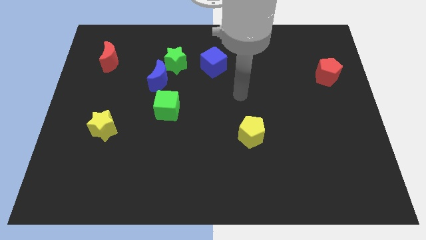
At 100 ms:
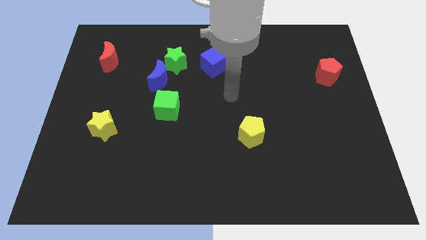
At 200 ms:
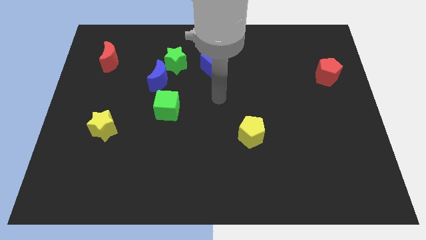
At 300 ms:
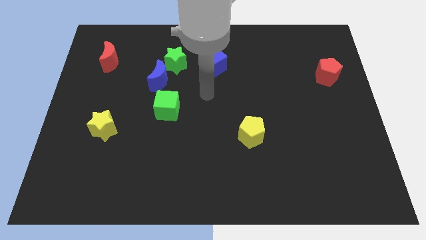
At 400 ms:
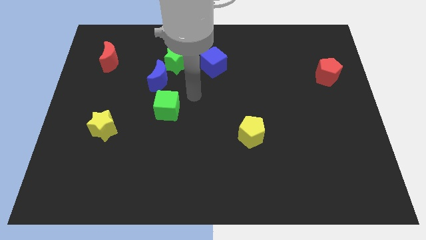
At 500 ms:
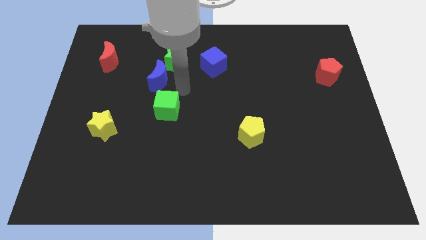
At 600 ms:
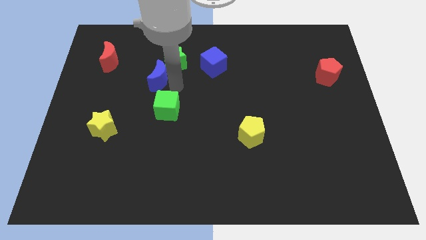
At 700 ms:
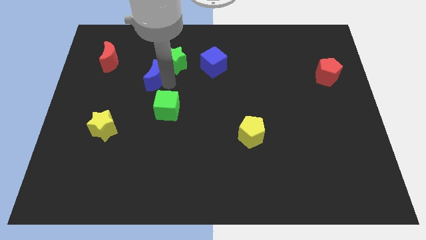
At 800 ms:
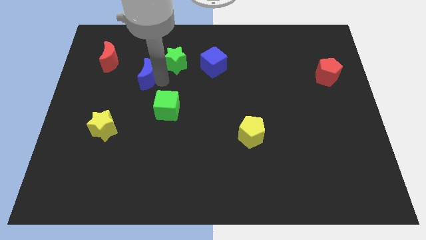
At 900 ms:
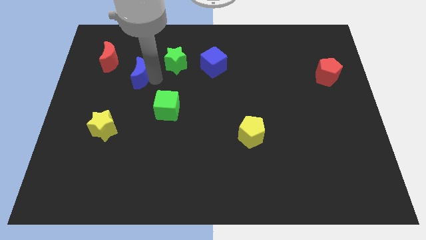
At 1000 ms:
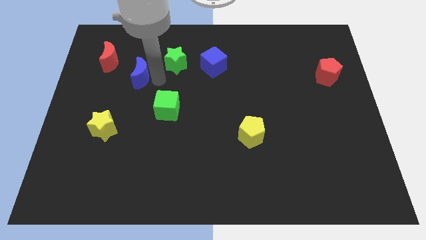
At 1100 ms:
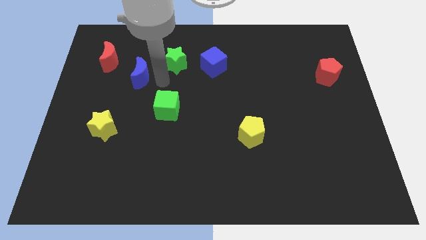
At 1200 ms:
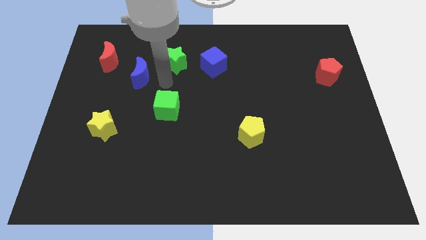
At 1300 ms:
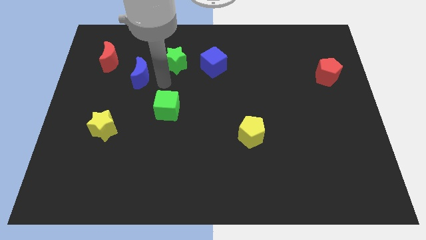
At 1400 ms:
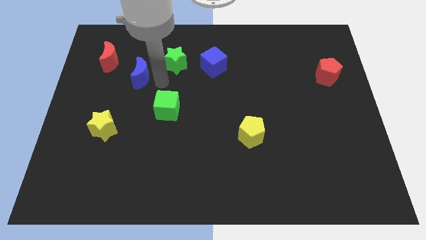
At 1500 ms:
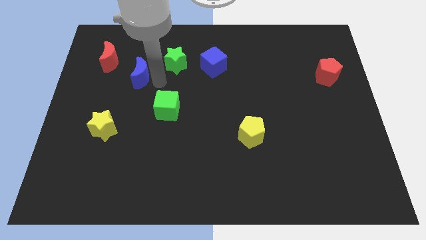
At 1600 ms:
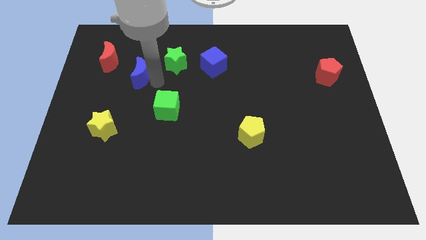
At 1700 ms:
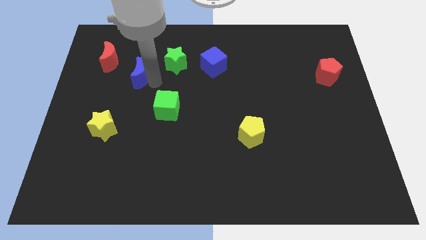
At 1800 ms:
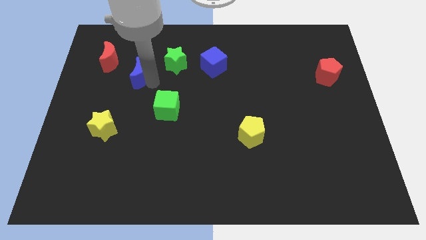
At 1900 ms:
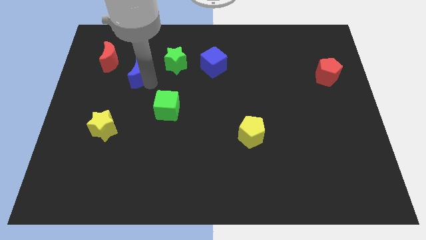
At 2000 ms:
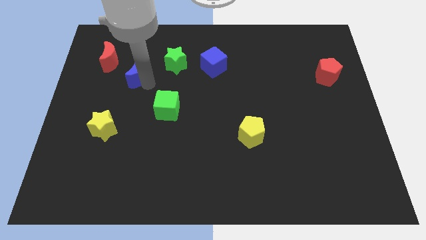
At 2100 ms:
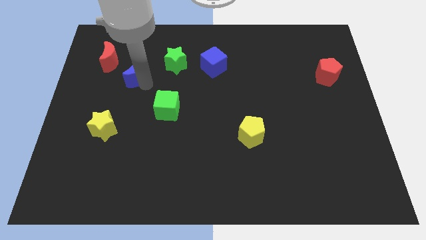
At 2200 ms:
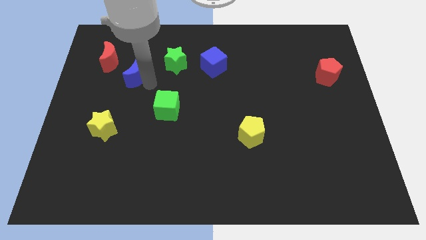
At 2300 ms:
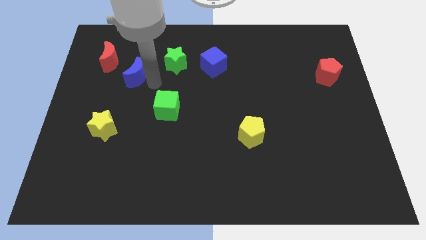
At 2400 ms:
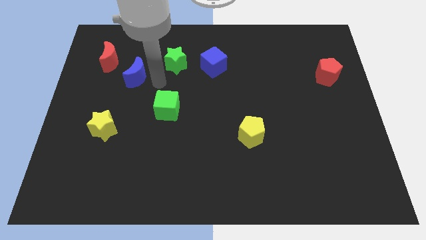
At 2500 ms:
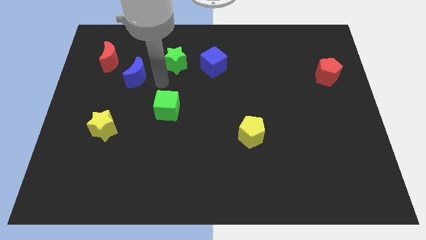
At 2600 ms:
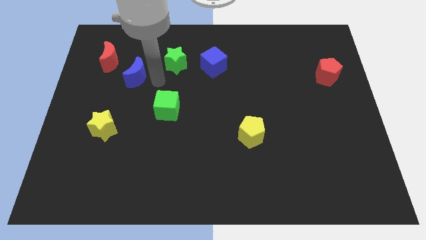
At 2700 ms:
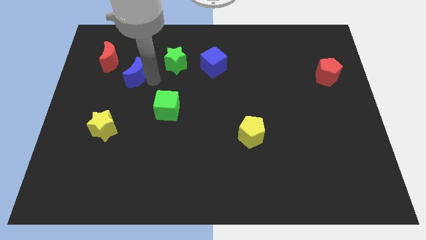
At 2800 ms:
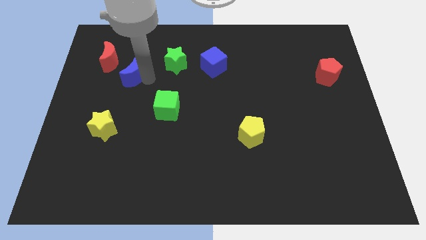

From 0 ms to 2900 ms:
pull the blue moon apart from the green star and green cube

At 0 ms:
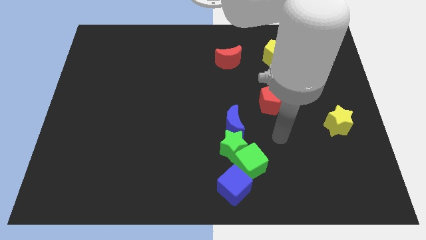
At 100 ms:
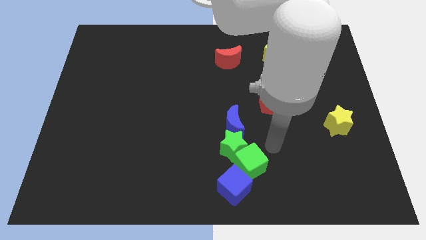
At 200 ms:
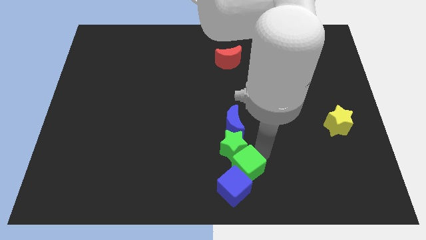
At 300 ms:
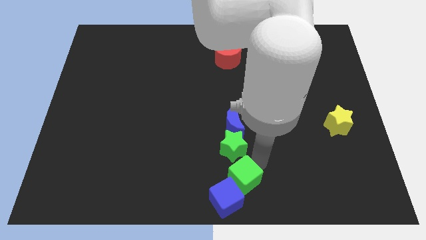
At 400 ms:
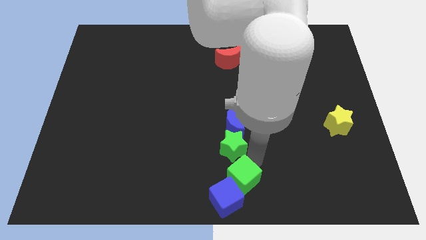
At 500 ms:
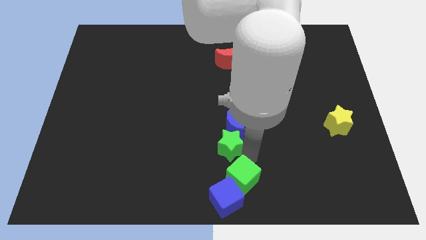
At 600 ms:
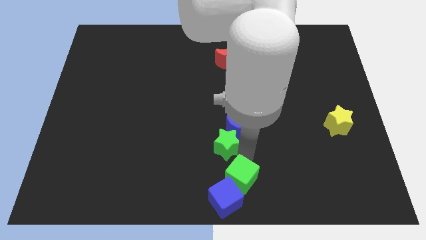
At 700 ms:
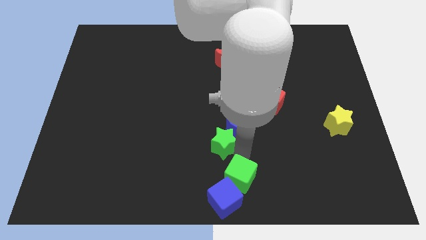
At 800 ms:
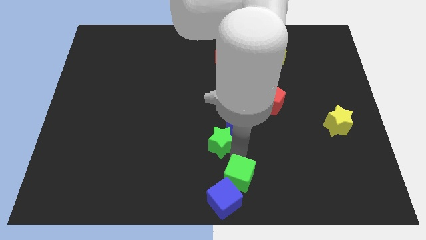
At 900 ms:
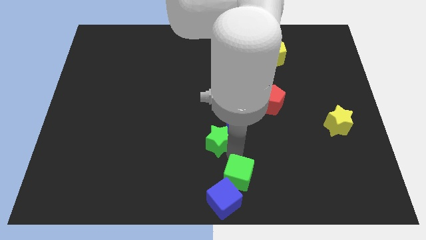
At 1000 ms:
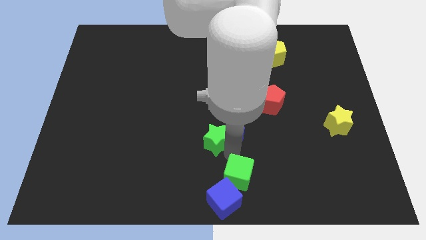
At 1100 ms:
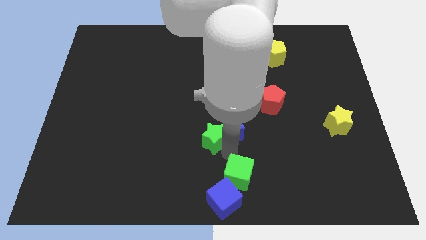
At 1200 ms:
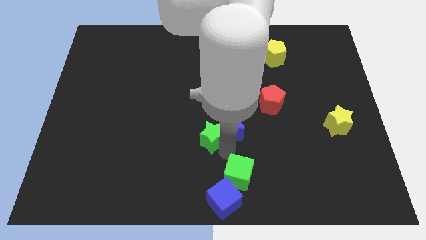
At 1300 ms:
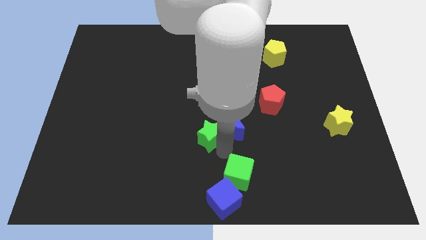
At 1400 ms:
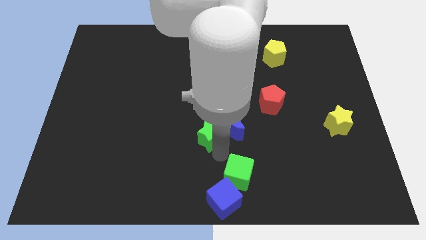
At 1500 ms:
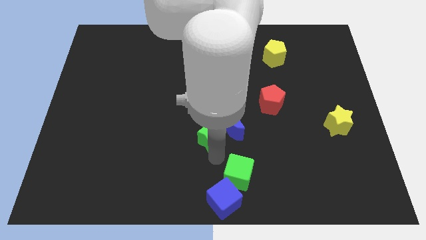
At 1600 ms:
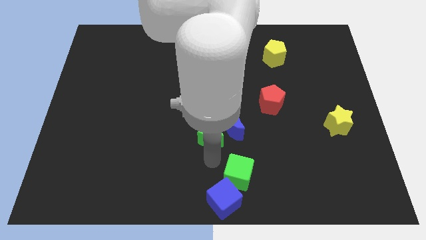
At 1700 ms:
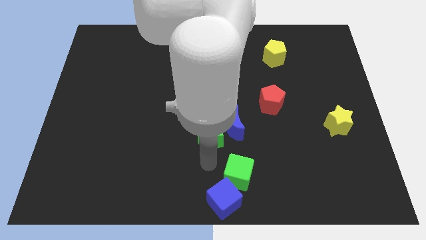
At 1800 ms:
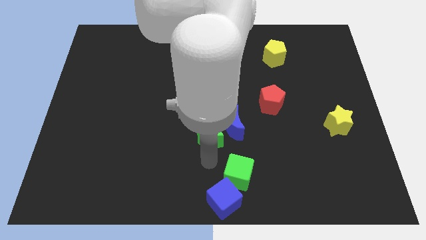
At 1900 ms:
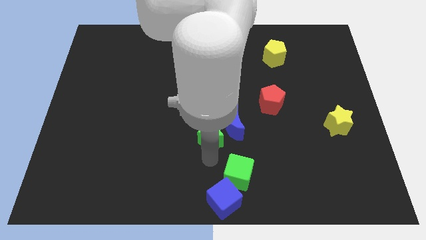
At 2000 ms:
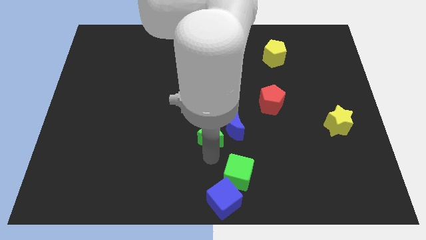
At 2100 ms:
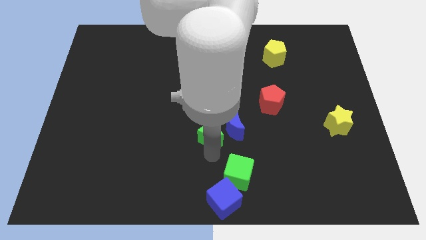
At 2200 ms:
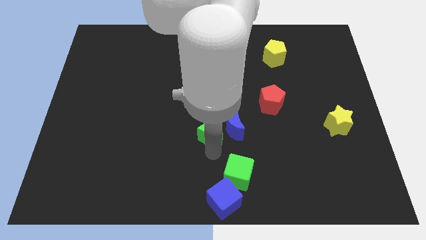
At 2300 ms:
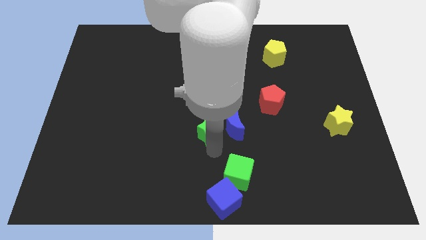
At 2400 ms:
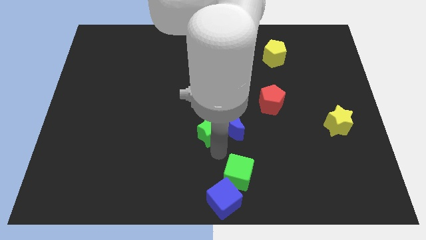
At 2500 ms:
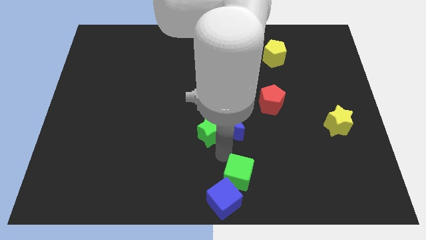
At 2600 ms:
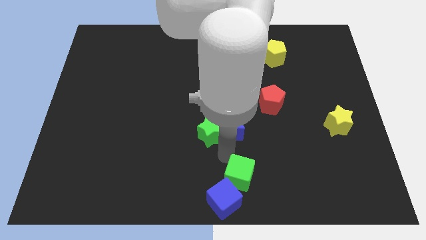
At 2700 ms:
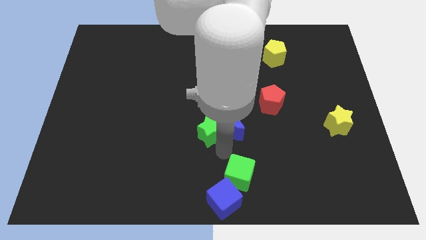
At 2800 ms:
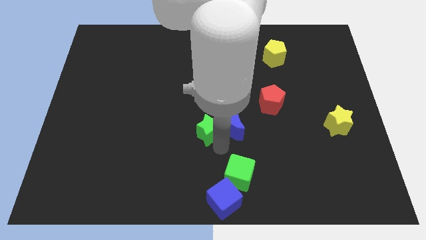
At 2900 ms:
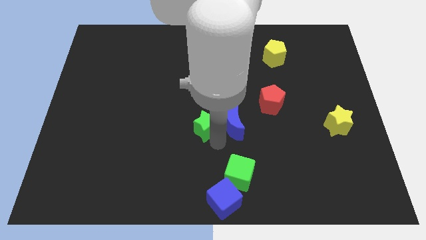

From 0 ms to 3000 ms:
separate the green star from the group

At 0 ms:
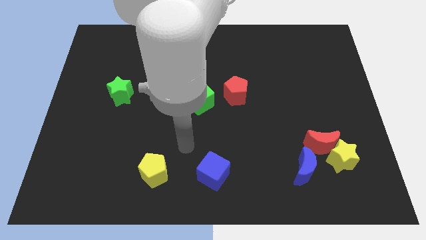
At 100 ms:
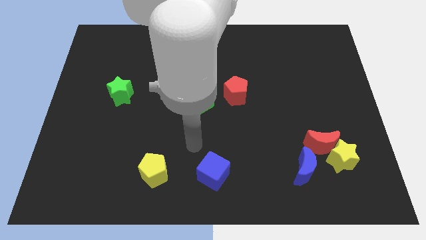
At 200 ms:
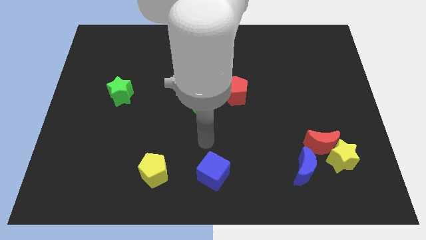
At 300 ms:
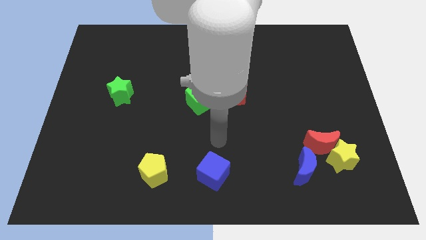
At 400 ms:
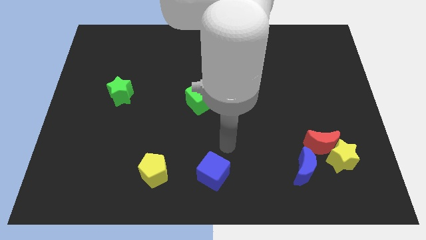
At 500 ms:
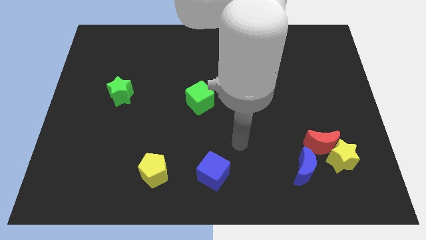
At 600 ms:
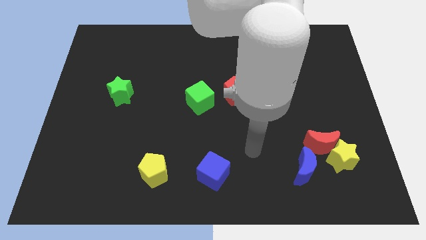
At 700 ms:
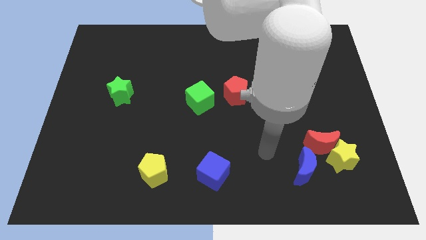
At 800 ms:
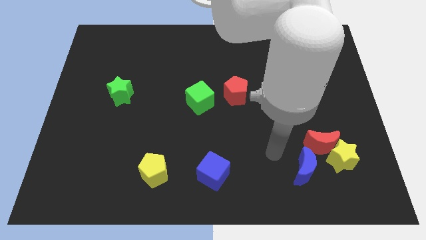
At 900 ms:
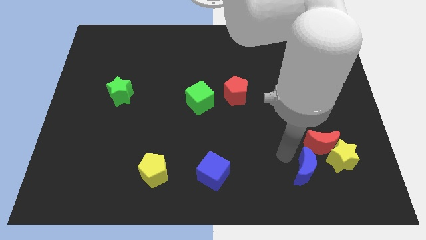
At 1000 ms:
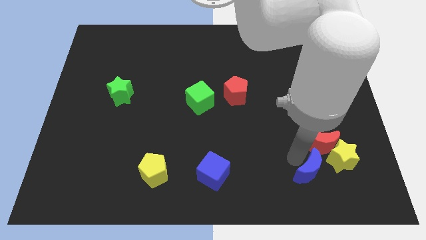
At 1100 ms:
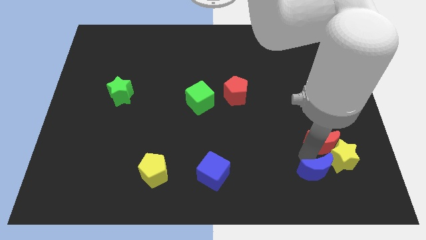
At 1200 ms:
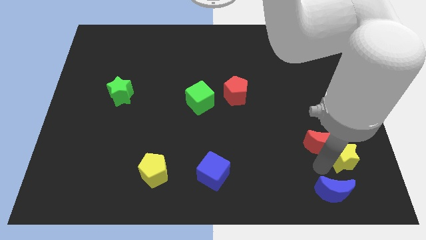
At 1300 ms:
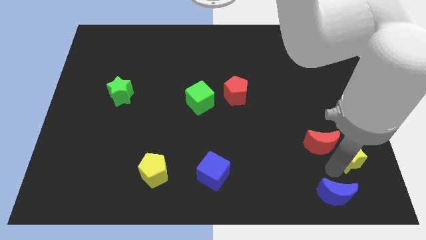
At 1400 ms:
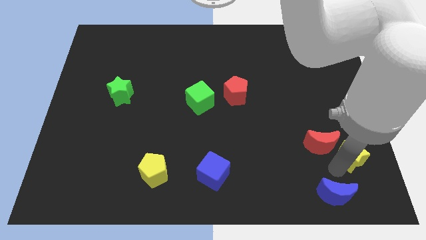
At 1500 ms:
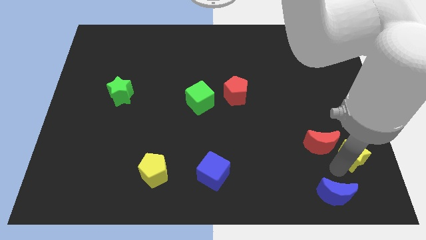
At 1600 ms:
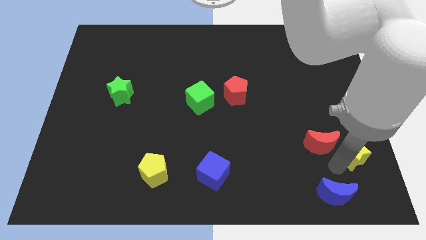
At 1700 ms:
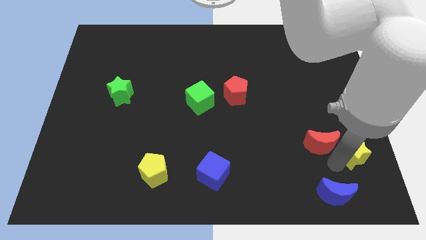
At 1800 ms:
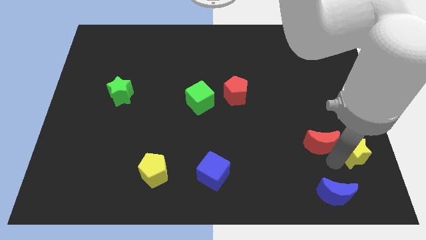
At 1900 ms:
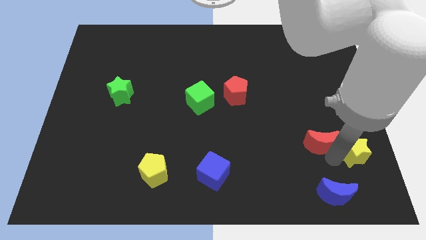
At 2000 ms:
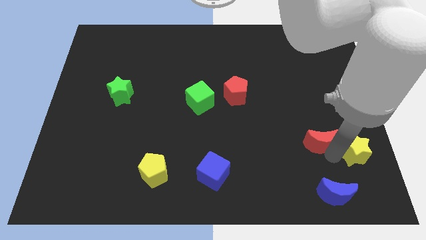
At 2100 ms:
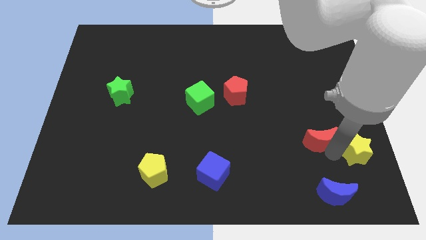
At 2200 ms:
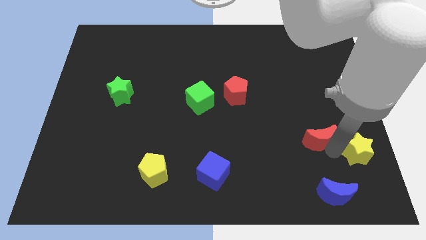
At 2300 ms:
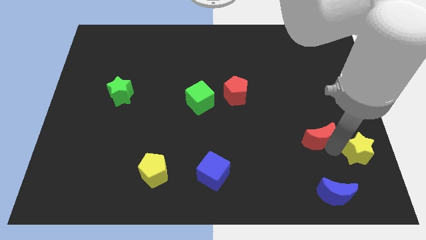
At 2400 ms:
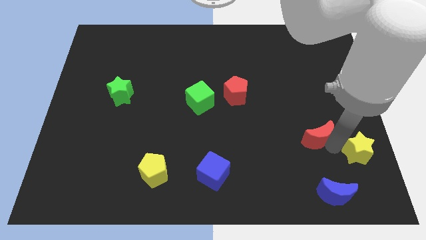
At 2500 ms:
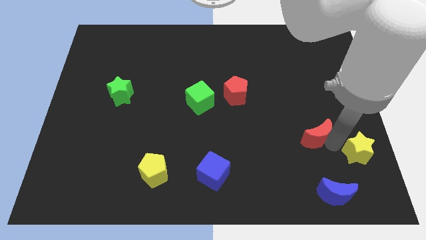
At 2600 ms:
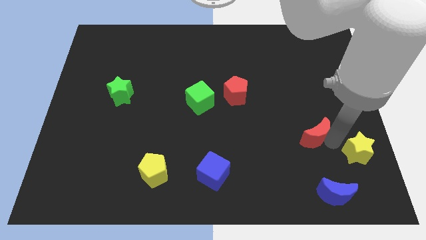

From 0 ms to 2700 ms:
pull the red moon apart from the yellow star and blue moon

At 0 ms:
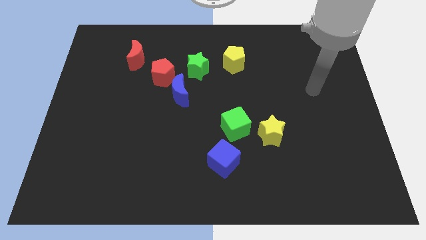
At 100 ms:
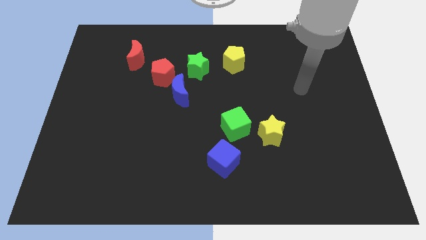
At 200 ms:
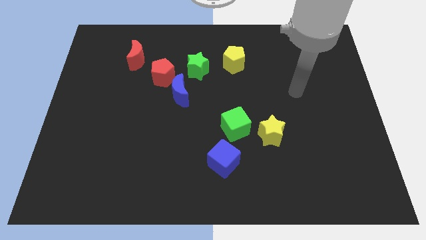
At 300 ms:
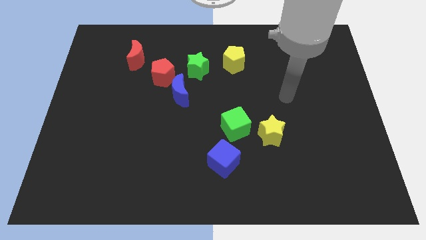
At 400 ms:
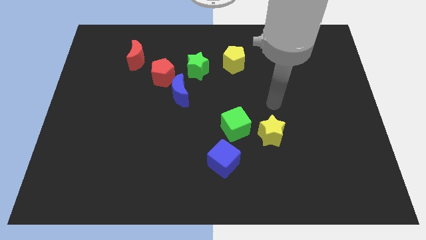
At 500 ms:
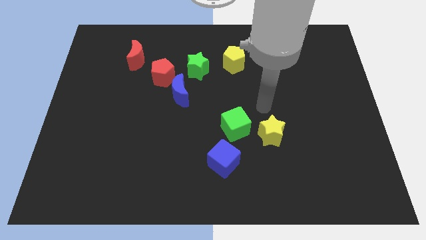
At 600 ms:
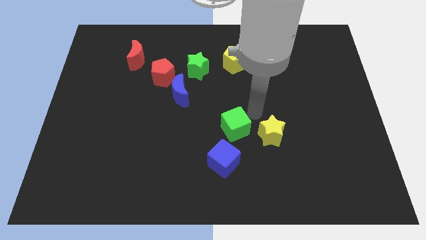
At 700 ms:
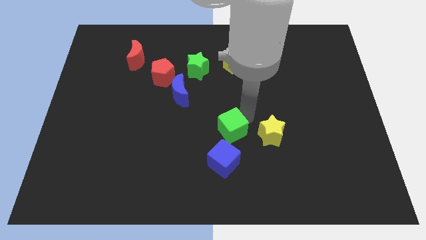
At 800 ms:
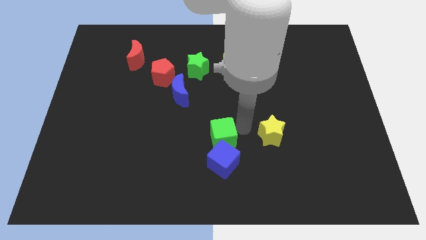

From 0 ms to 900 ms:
separate the yellow star from the green cube
